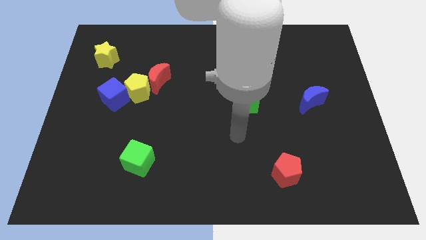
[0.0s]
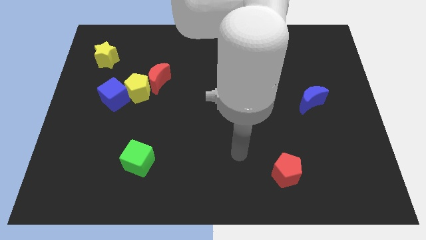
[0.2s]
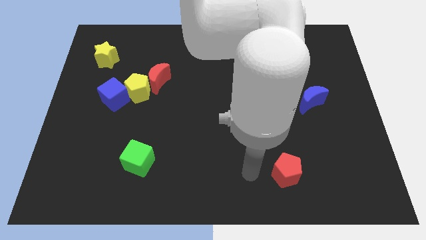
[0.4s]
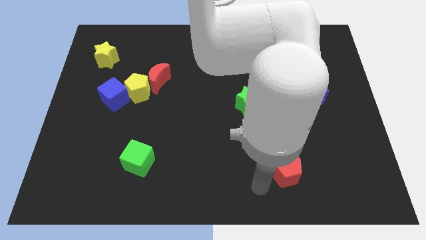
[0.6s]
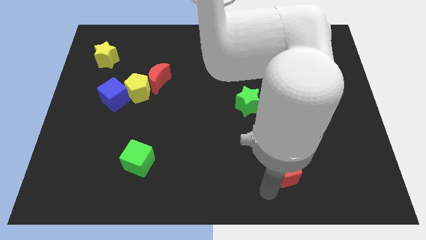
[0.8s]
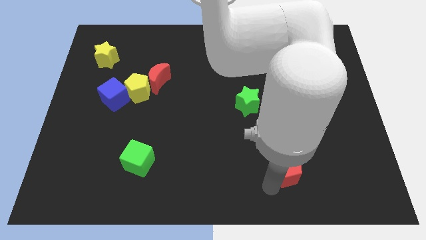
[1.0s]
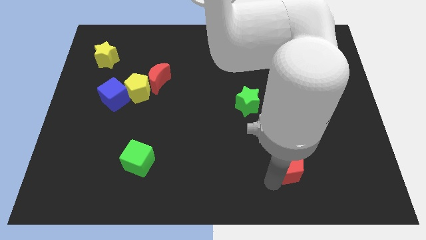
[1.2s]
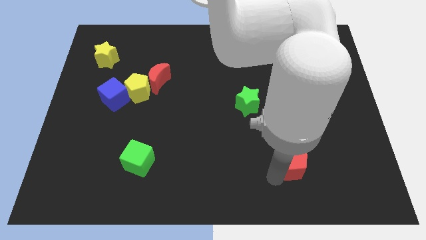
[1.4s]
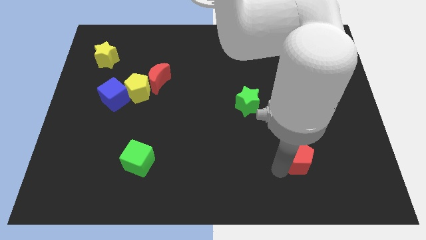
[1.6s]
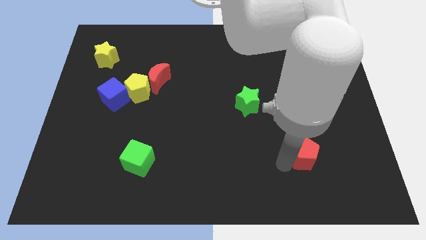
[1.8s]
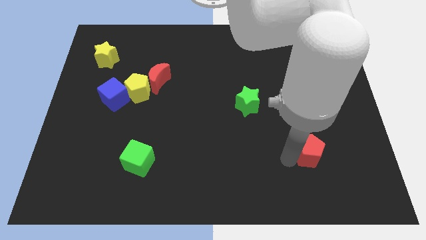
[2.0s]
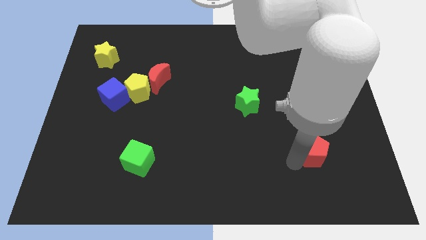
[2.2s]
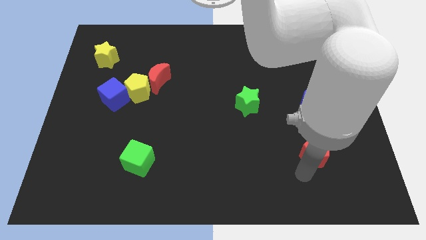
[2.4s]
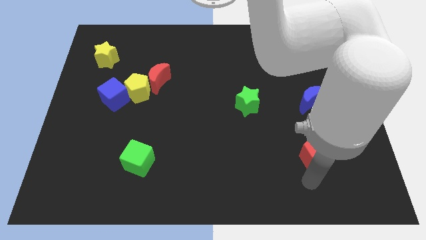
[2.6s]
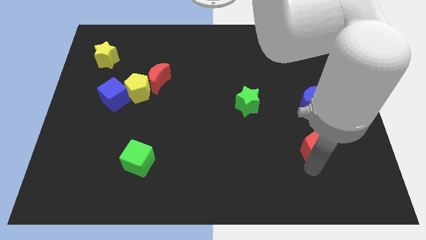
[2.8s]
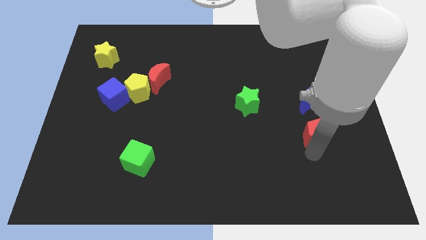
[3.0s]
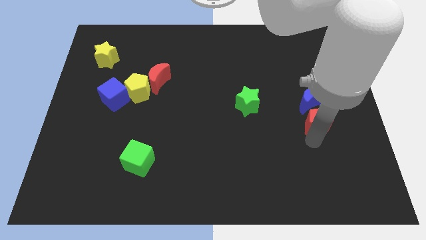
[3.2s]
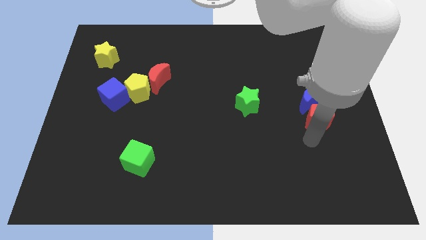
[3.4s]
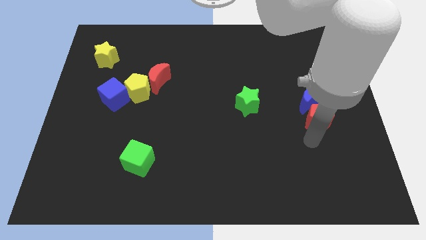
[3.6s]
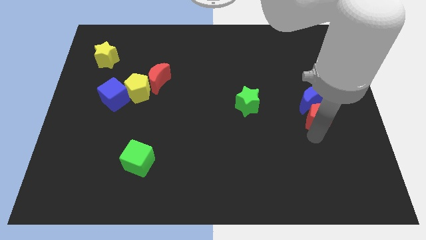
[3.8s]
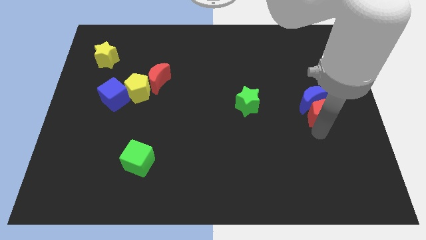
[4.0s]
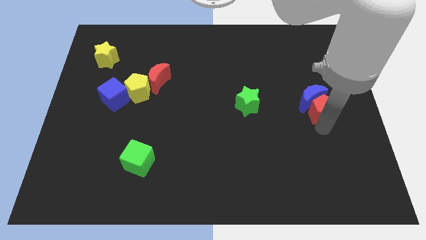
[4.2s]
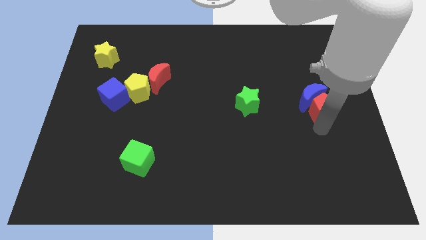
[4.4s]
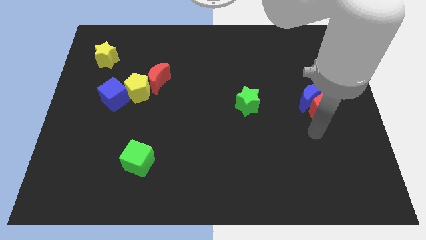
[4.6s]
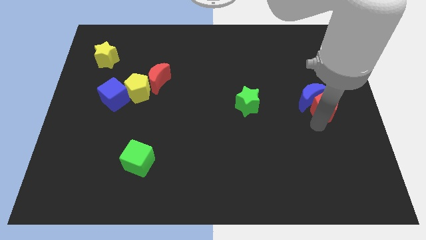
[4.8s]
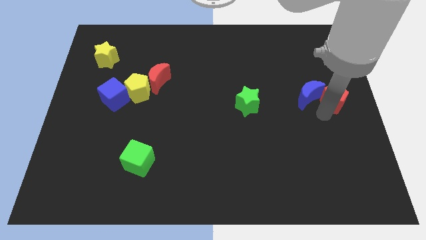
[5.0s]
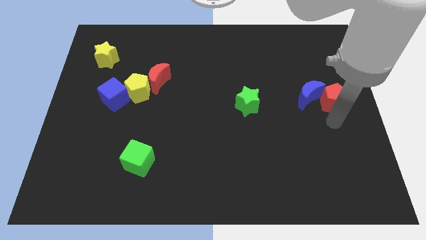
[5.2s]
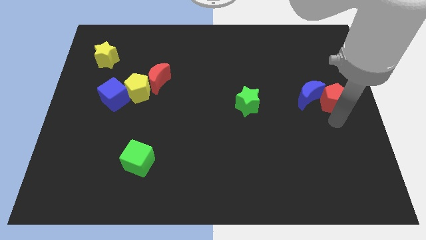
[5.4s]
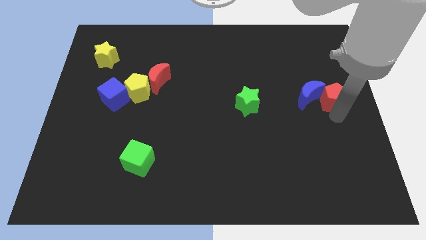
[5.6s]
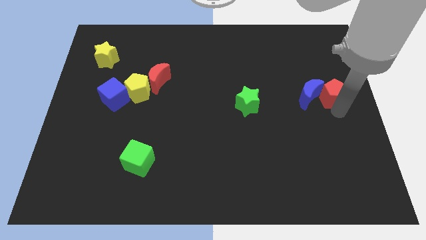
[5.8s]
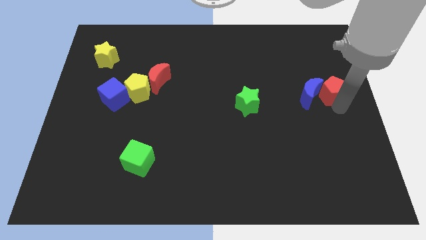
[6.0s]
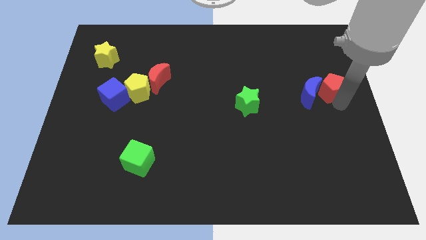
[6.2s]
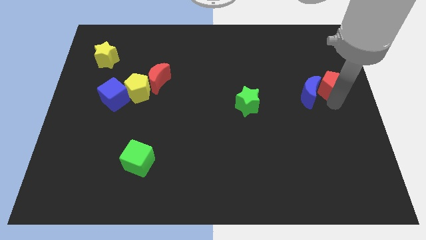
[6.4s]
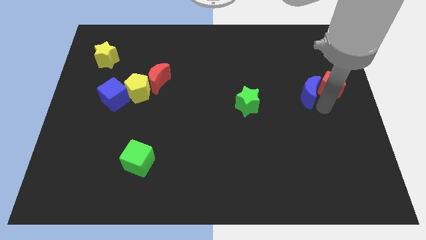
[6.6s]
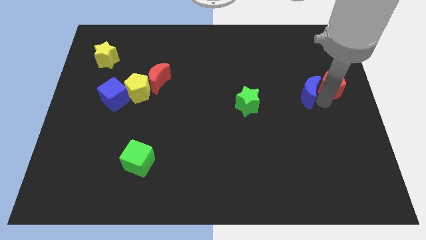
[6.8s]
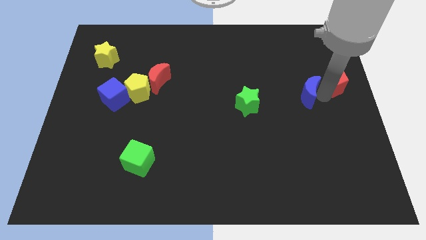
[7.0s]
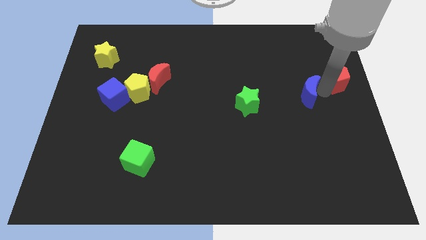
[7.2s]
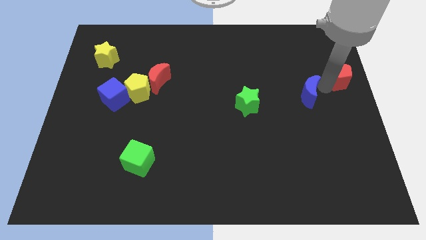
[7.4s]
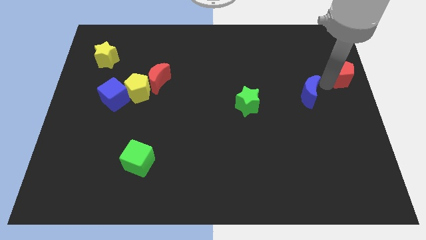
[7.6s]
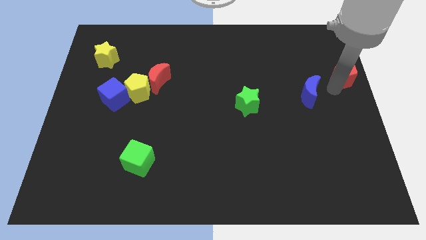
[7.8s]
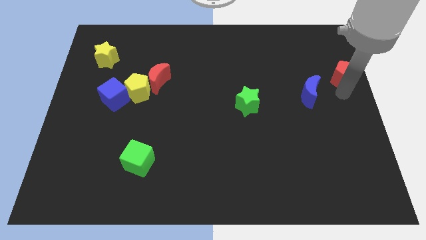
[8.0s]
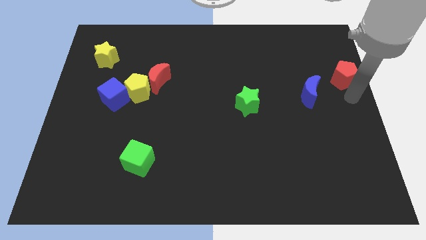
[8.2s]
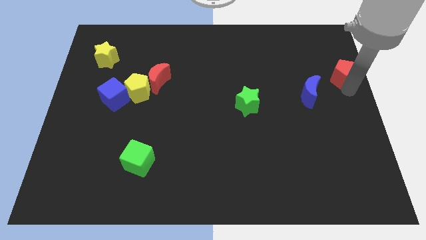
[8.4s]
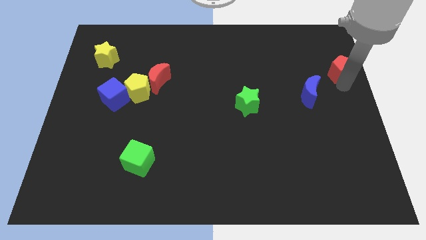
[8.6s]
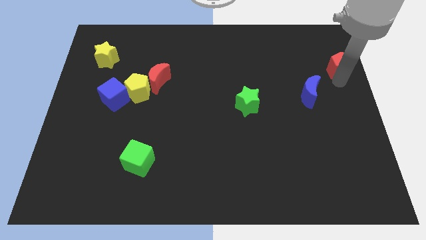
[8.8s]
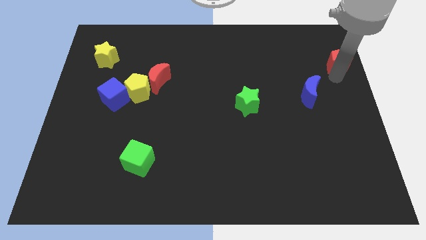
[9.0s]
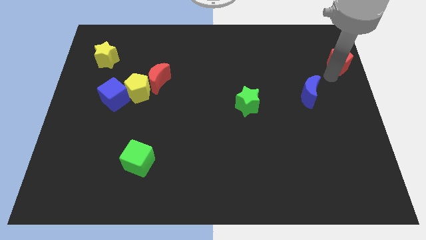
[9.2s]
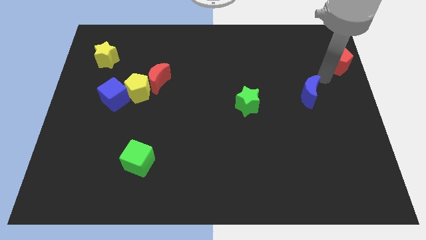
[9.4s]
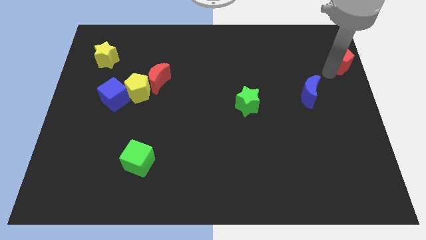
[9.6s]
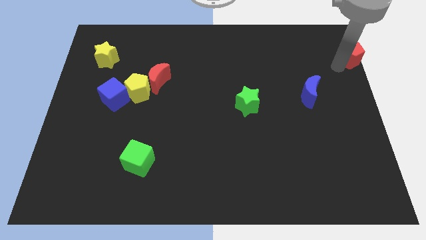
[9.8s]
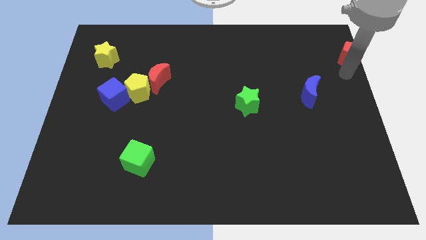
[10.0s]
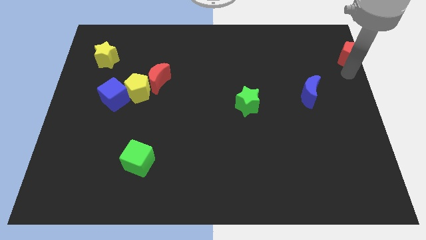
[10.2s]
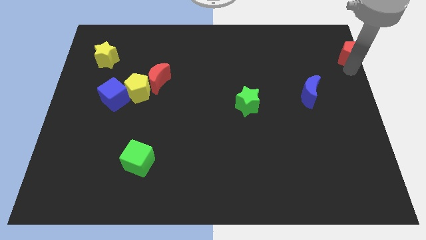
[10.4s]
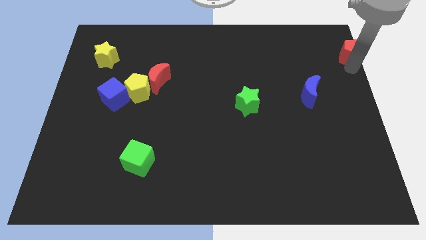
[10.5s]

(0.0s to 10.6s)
move the red pentagon to the upper right corner
